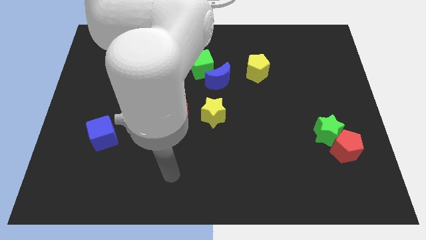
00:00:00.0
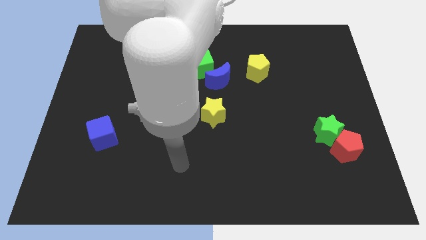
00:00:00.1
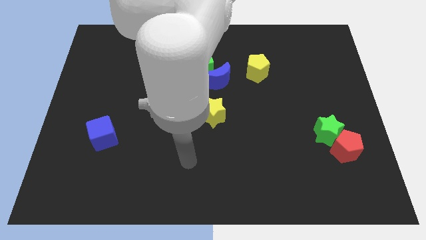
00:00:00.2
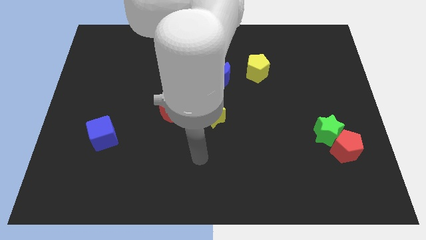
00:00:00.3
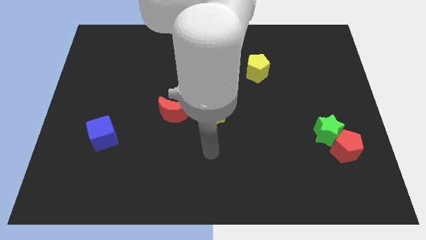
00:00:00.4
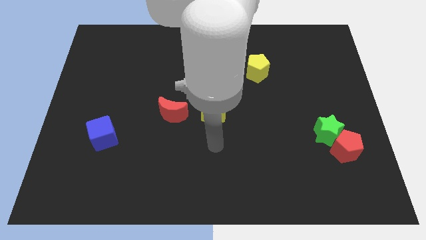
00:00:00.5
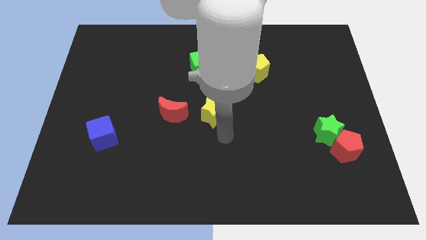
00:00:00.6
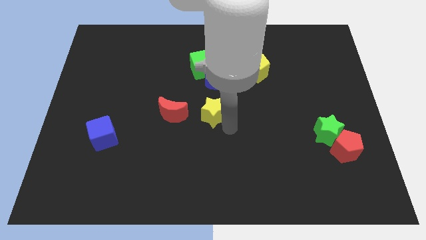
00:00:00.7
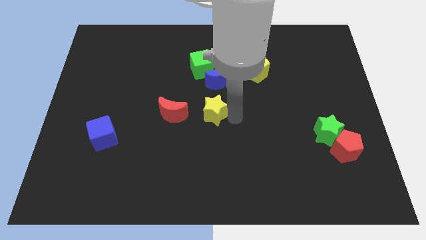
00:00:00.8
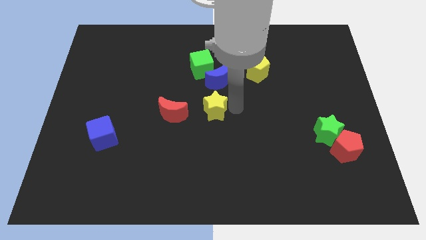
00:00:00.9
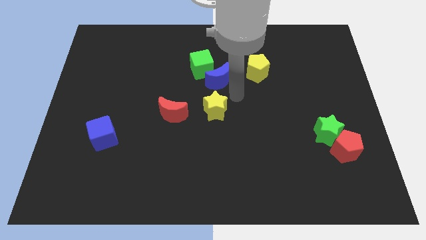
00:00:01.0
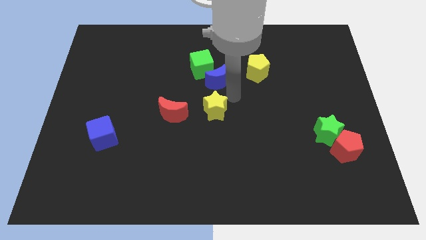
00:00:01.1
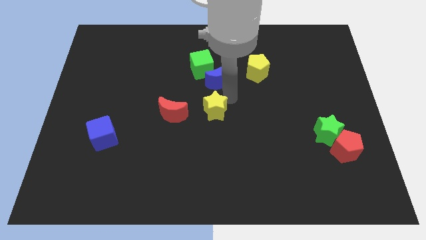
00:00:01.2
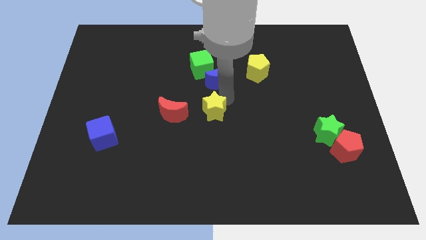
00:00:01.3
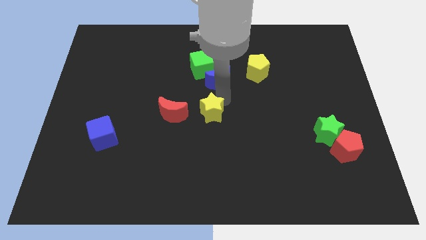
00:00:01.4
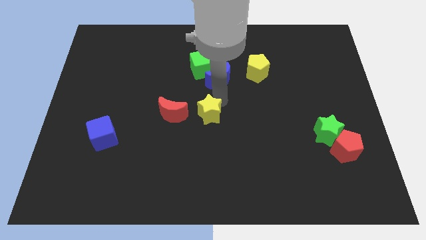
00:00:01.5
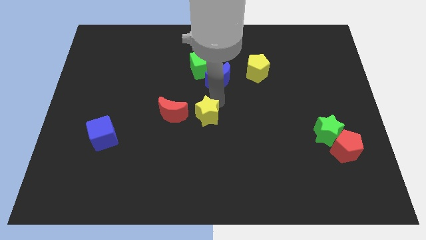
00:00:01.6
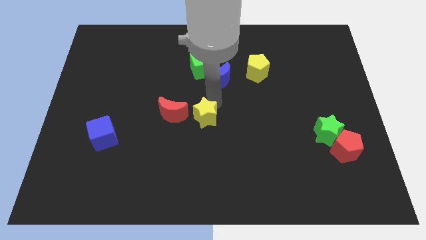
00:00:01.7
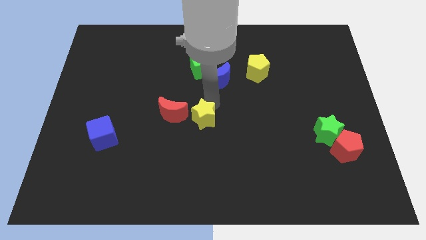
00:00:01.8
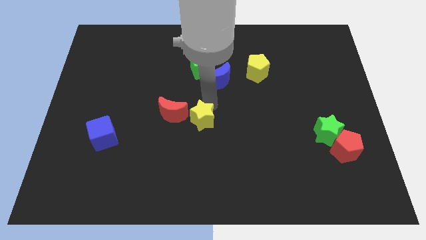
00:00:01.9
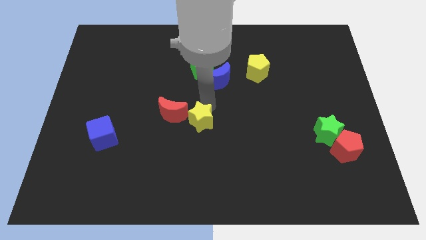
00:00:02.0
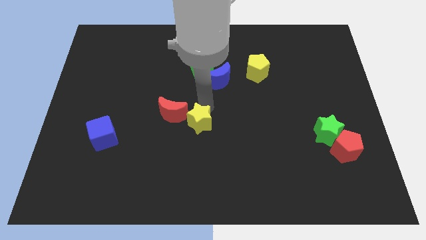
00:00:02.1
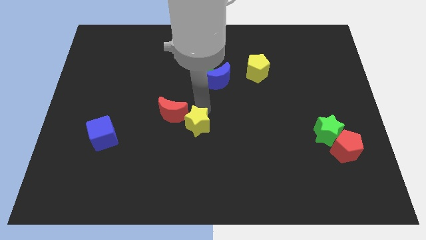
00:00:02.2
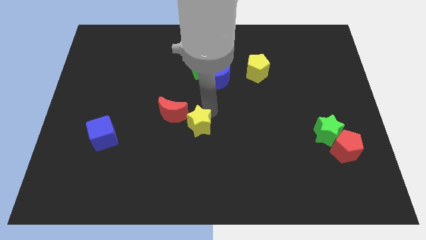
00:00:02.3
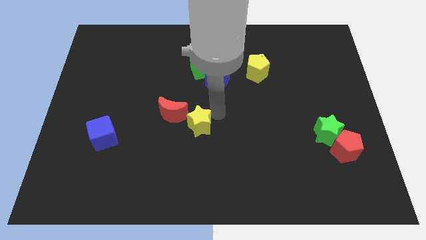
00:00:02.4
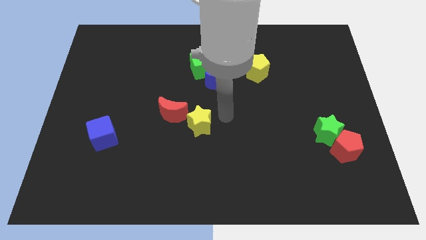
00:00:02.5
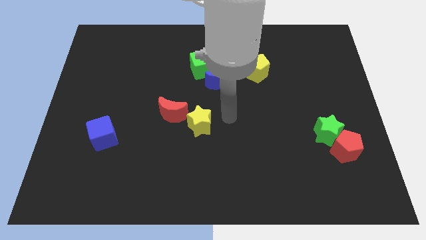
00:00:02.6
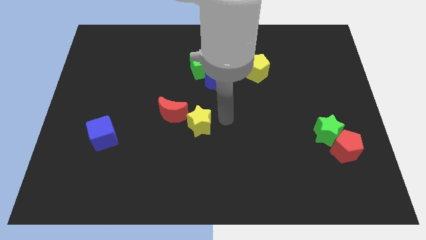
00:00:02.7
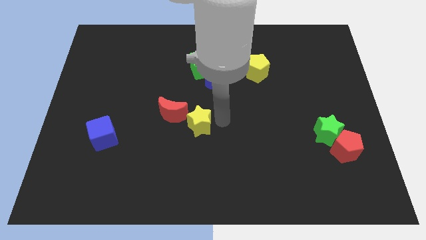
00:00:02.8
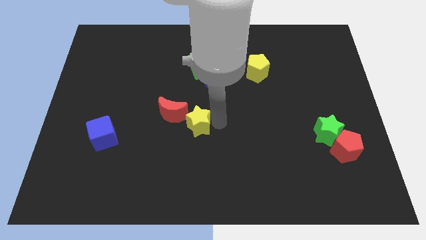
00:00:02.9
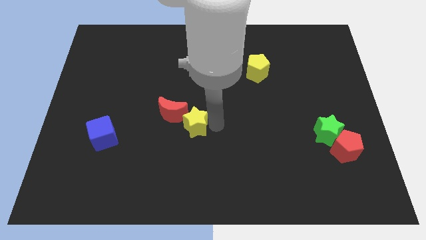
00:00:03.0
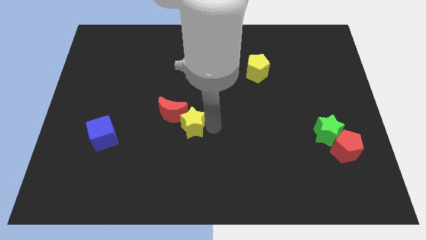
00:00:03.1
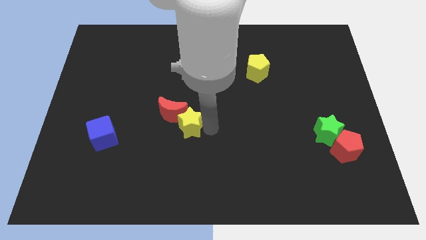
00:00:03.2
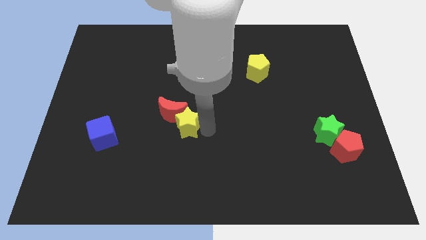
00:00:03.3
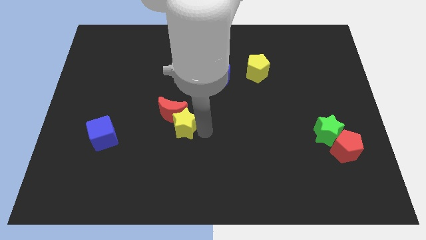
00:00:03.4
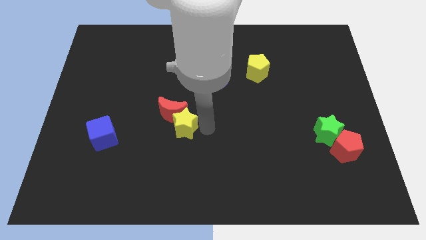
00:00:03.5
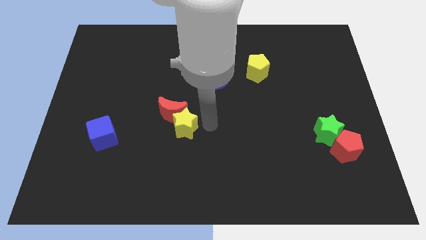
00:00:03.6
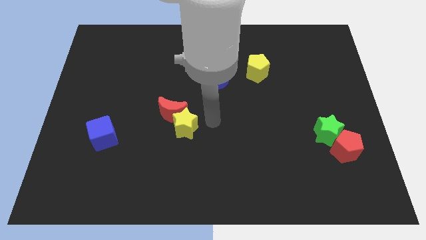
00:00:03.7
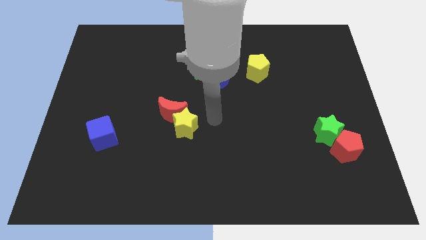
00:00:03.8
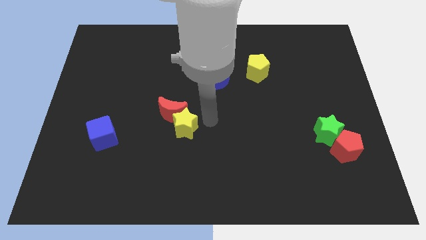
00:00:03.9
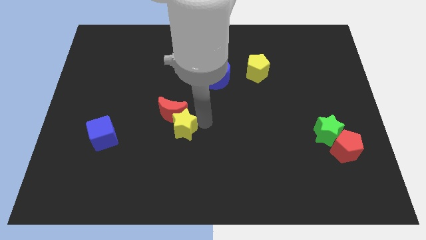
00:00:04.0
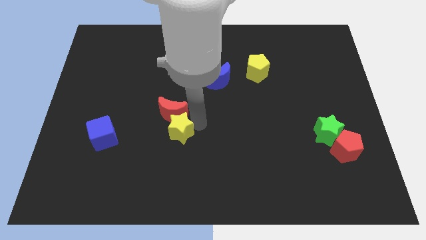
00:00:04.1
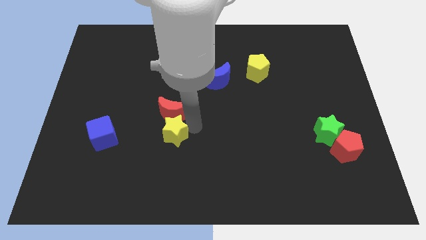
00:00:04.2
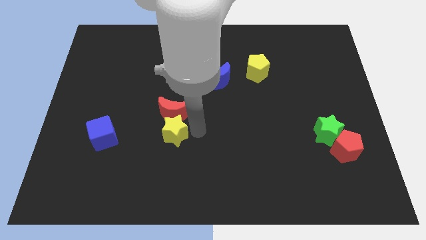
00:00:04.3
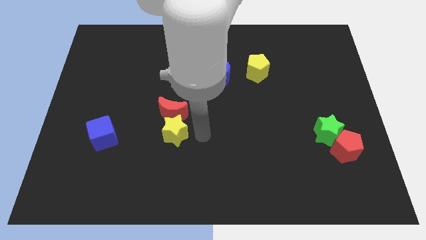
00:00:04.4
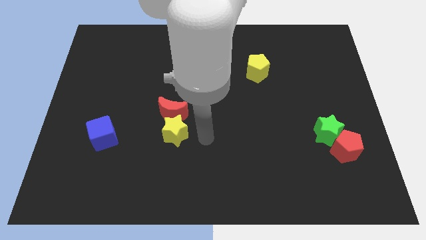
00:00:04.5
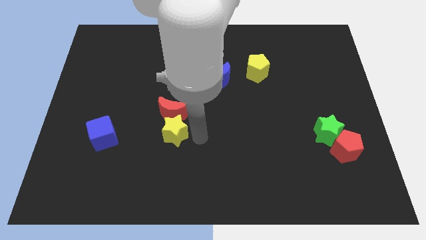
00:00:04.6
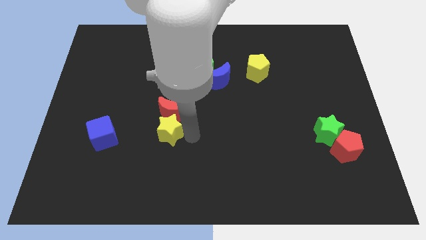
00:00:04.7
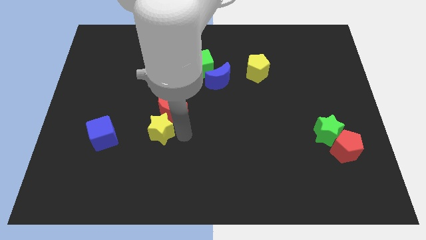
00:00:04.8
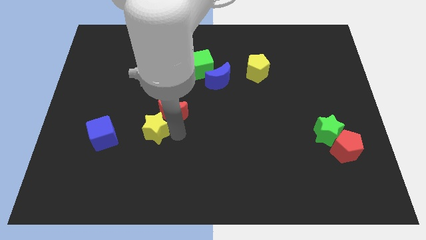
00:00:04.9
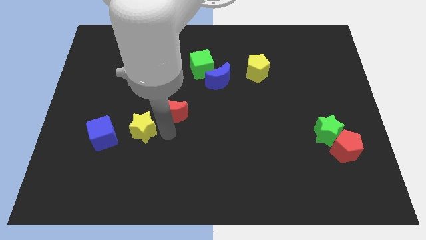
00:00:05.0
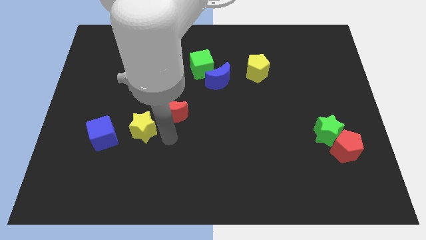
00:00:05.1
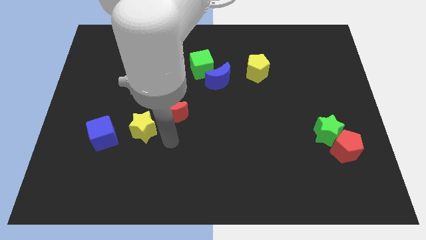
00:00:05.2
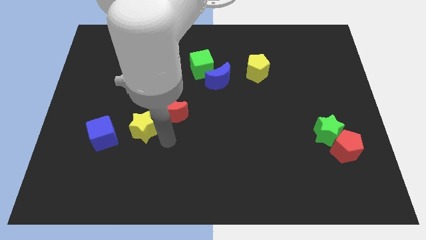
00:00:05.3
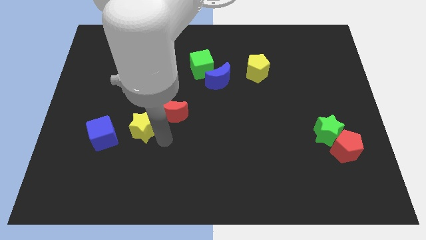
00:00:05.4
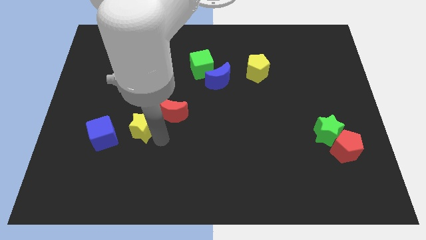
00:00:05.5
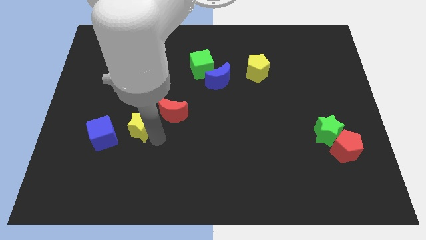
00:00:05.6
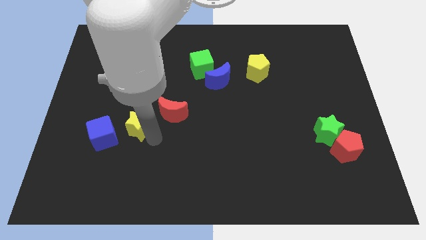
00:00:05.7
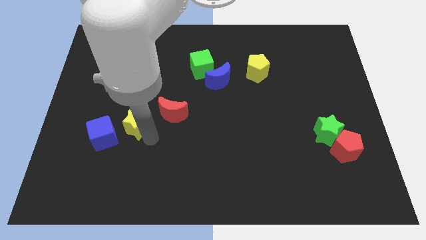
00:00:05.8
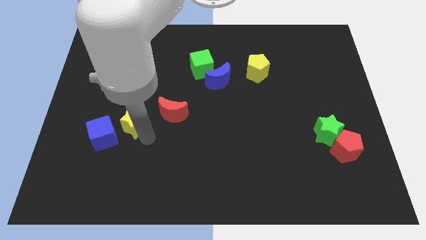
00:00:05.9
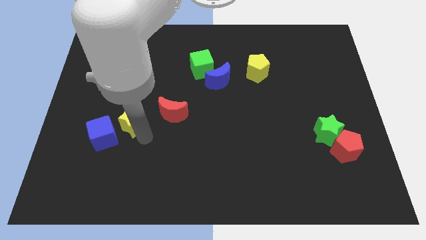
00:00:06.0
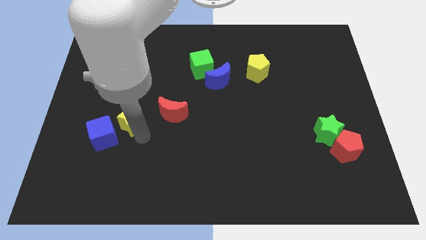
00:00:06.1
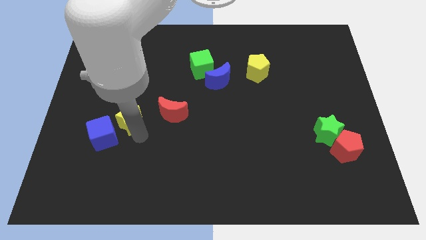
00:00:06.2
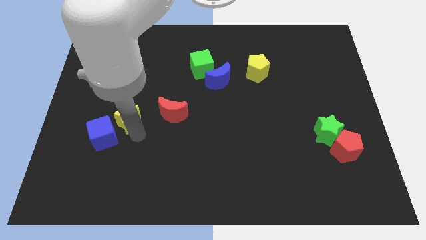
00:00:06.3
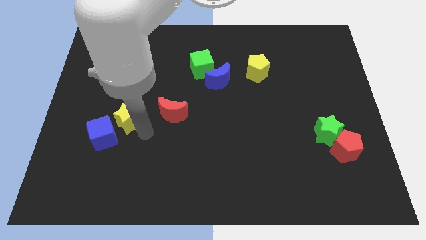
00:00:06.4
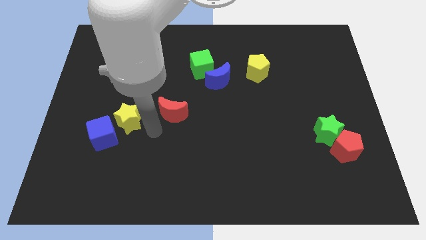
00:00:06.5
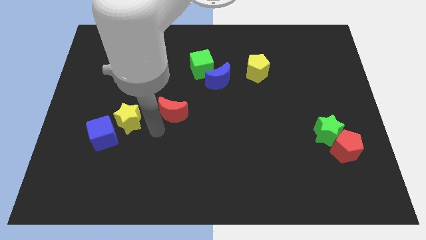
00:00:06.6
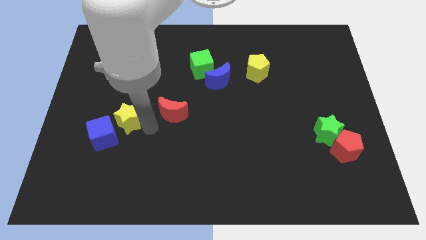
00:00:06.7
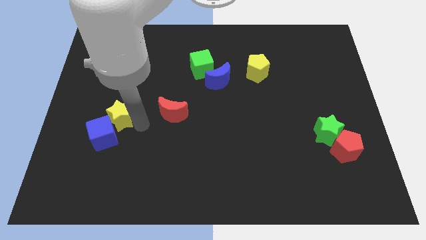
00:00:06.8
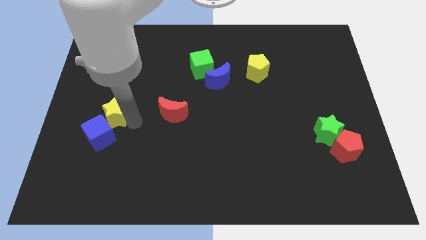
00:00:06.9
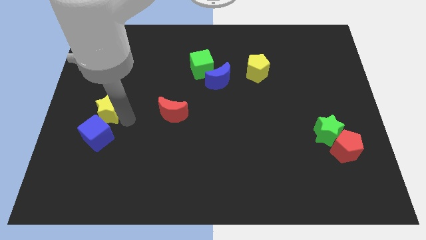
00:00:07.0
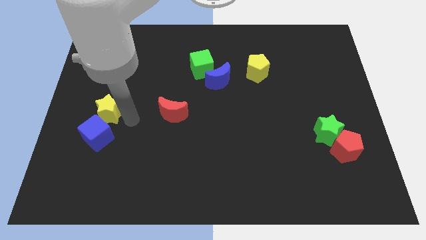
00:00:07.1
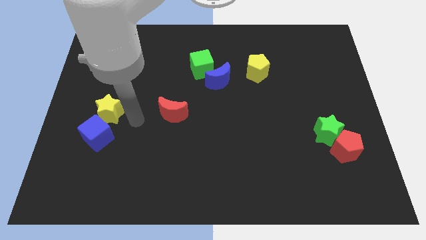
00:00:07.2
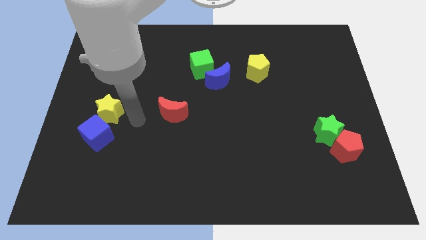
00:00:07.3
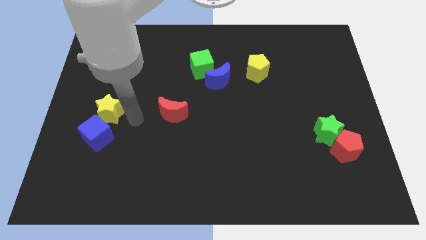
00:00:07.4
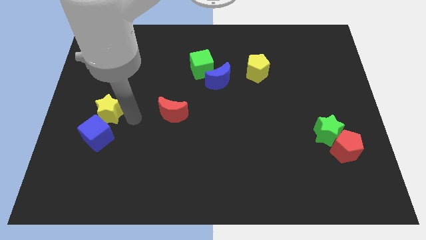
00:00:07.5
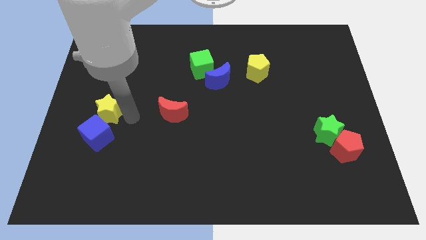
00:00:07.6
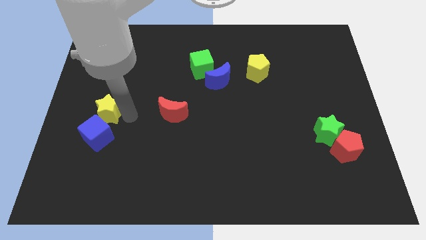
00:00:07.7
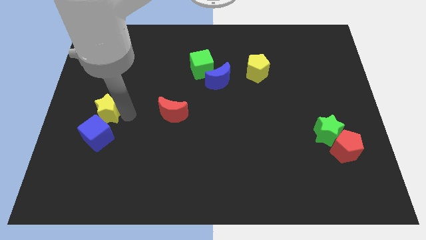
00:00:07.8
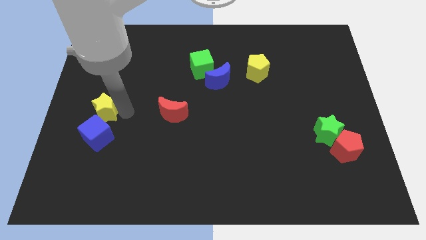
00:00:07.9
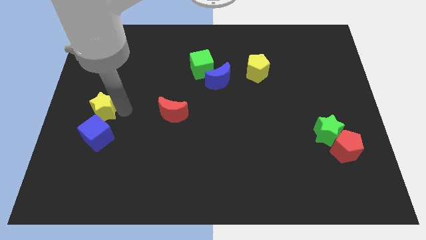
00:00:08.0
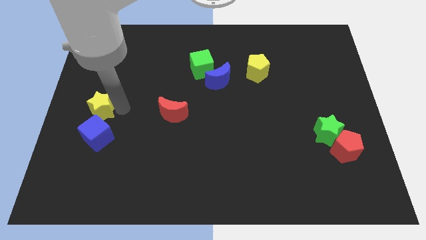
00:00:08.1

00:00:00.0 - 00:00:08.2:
put the yellow star to the center left
